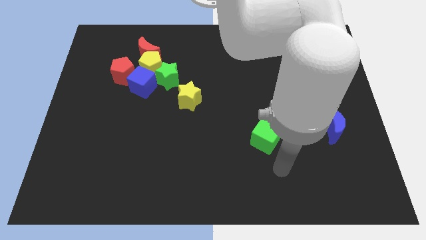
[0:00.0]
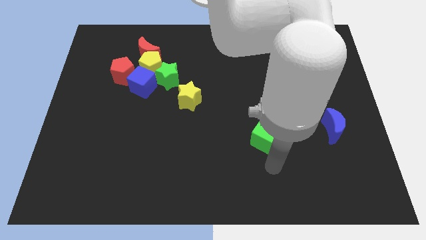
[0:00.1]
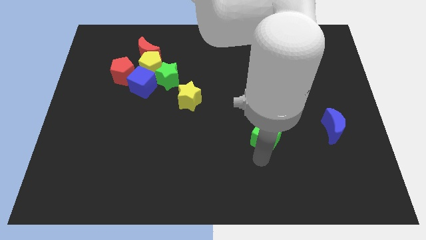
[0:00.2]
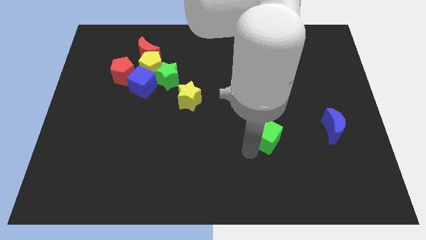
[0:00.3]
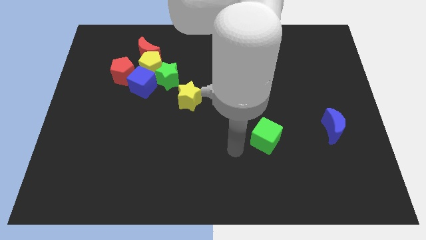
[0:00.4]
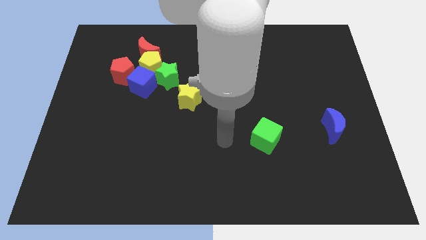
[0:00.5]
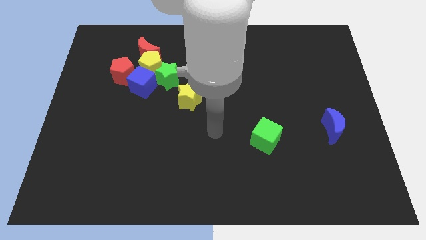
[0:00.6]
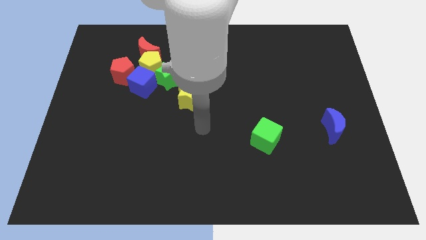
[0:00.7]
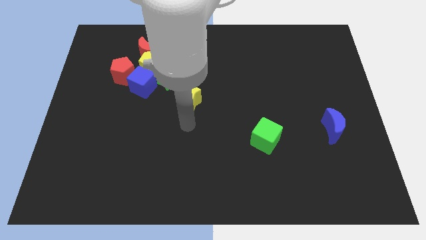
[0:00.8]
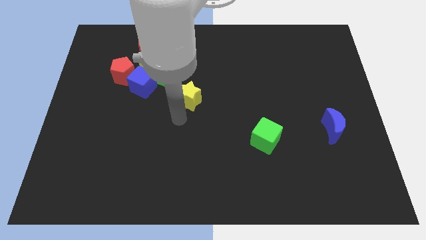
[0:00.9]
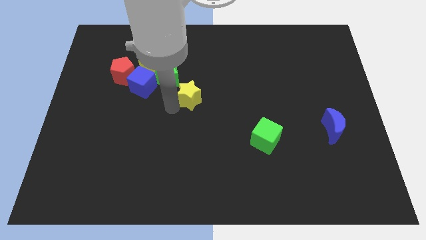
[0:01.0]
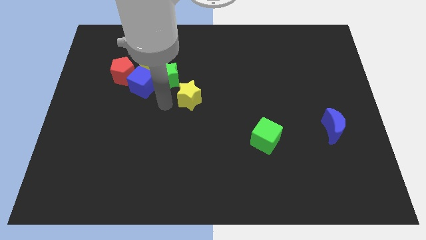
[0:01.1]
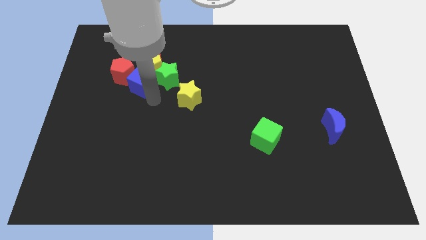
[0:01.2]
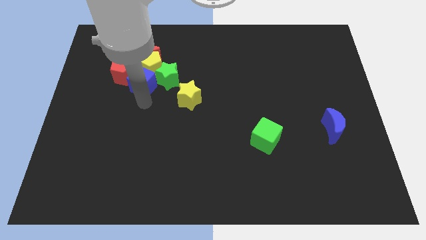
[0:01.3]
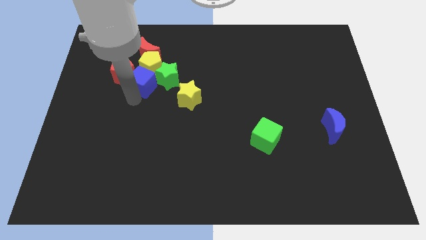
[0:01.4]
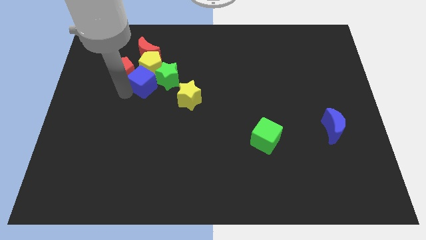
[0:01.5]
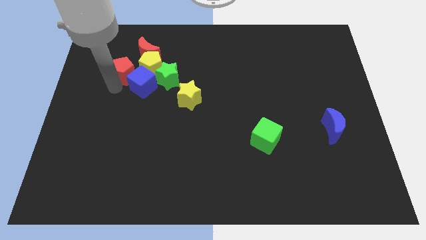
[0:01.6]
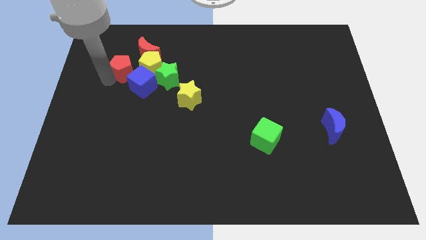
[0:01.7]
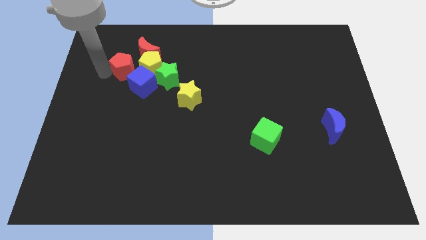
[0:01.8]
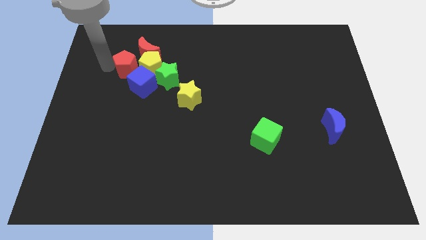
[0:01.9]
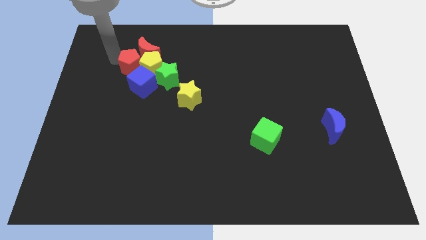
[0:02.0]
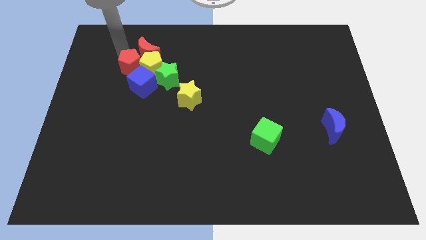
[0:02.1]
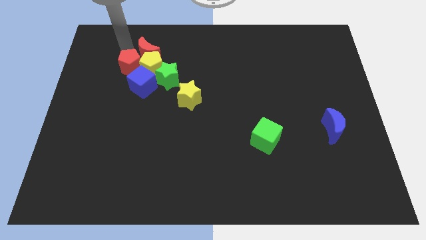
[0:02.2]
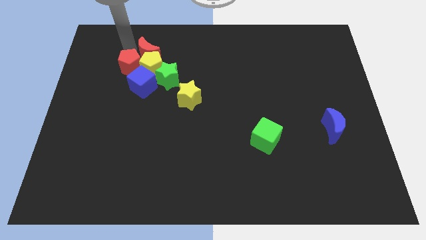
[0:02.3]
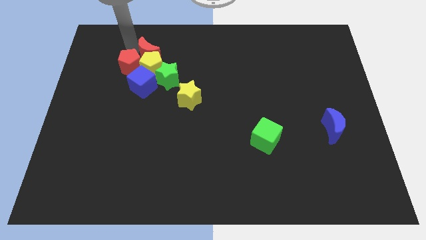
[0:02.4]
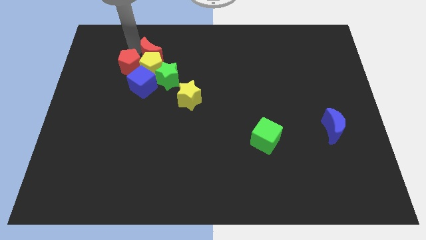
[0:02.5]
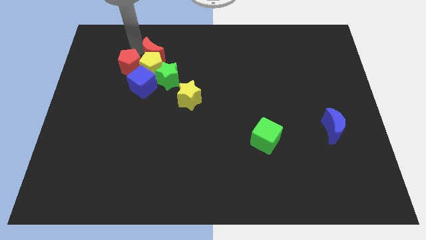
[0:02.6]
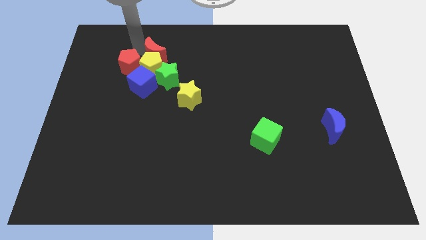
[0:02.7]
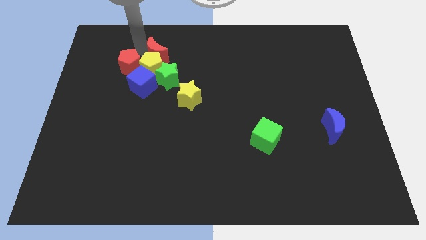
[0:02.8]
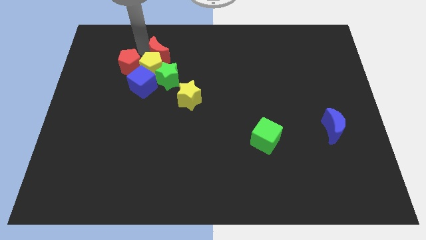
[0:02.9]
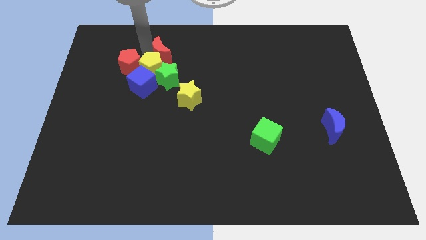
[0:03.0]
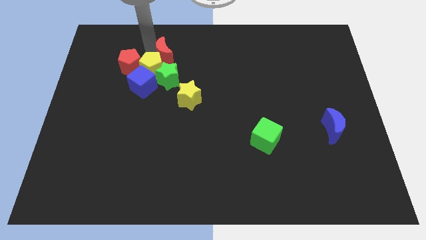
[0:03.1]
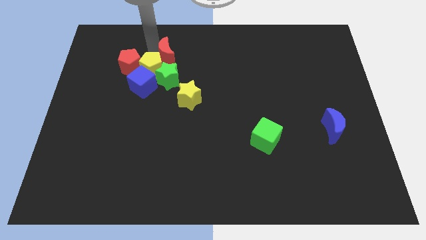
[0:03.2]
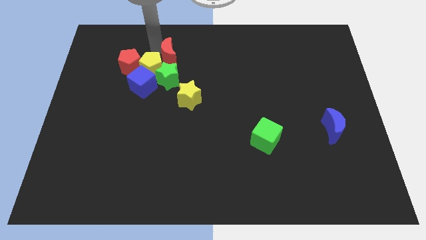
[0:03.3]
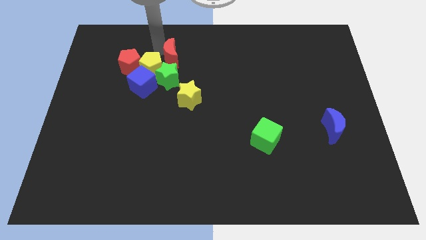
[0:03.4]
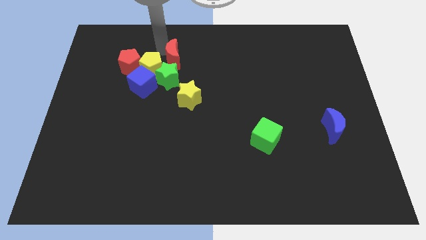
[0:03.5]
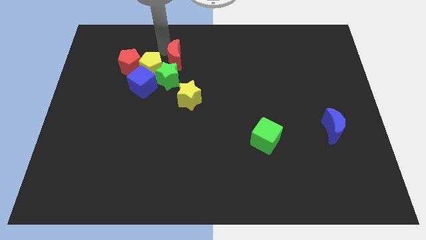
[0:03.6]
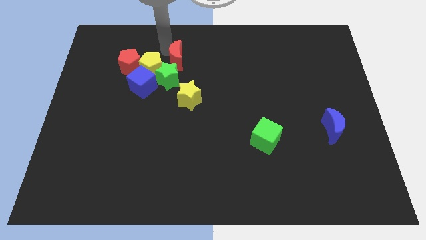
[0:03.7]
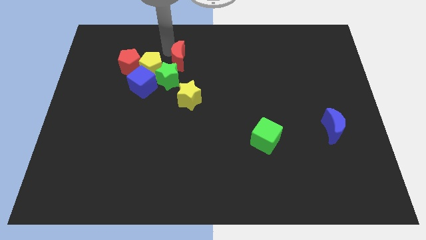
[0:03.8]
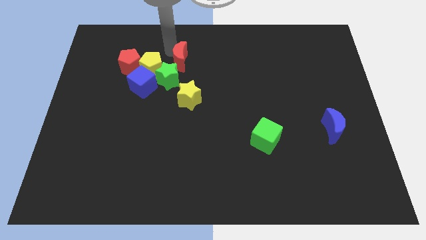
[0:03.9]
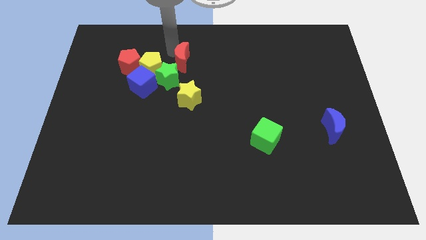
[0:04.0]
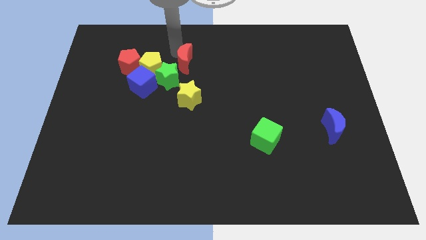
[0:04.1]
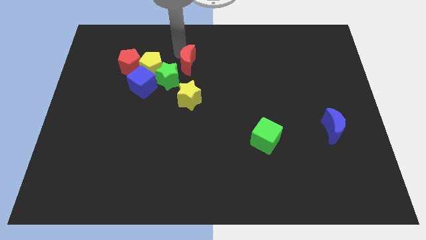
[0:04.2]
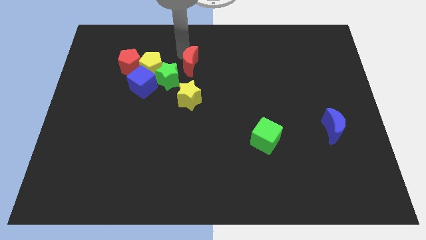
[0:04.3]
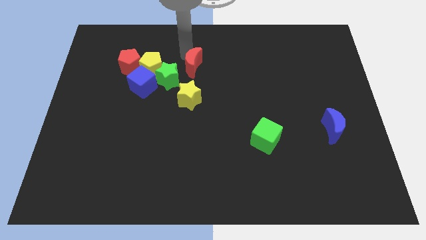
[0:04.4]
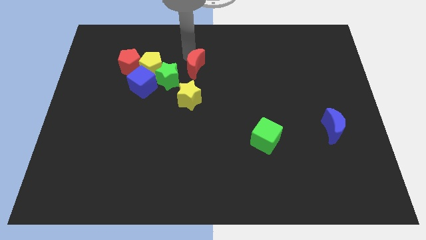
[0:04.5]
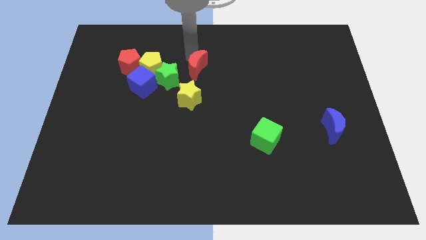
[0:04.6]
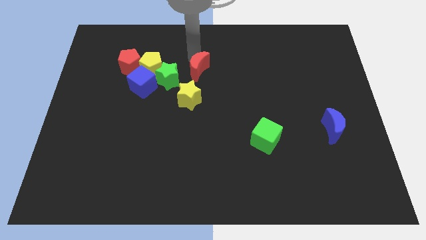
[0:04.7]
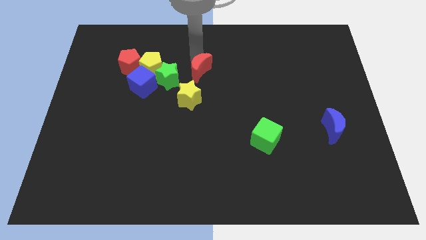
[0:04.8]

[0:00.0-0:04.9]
slide the red moon diagonally up and to the right of the yellow star

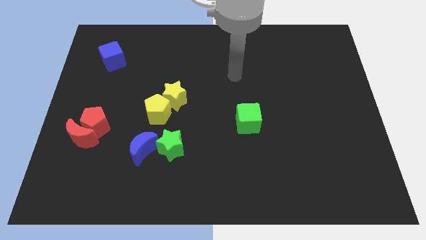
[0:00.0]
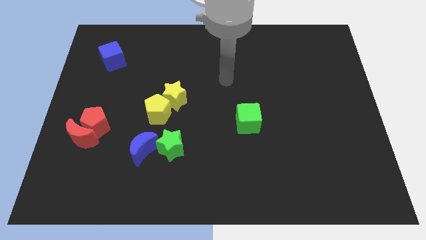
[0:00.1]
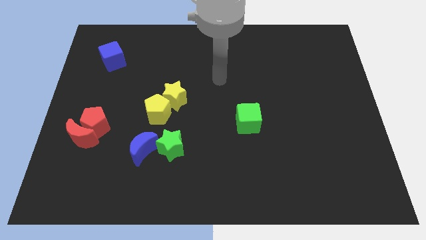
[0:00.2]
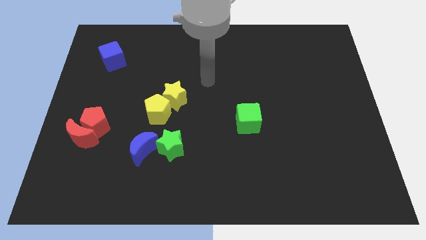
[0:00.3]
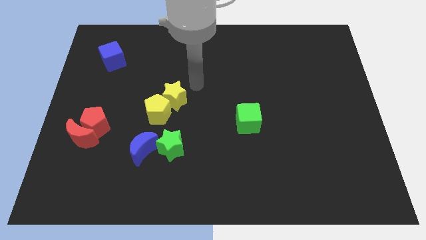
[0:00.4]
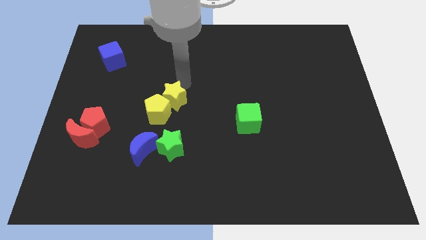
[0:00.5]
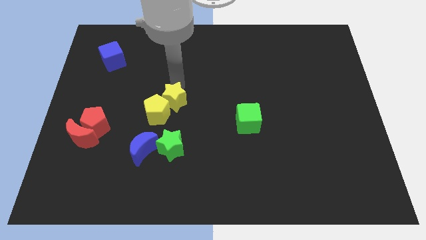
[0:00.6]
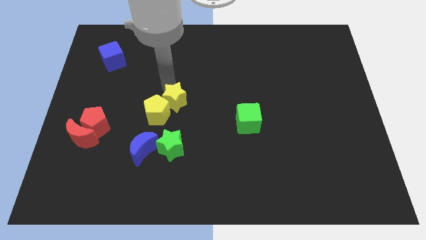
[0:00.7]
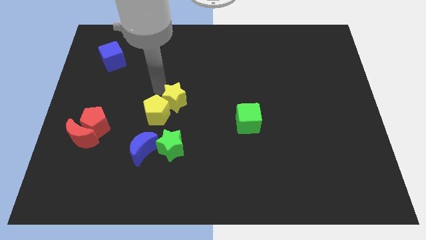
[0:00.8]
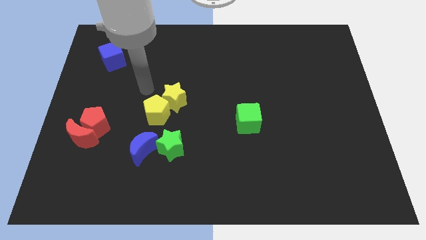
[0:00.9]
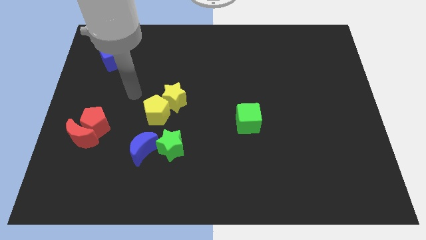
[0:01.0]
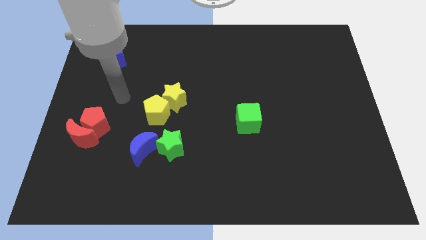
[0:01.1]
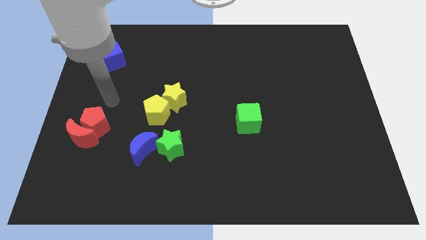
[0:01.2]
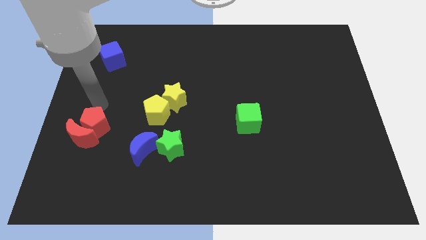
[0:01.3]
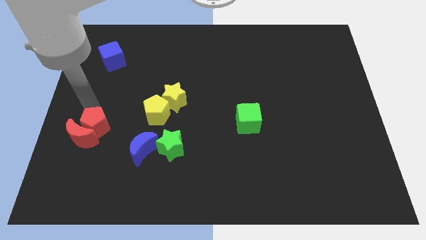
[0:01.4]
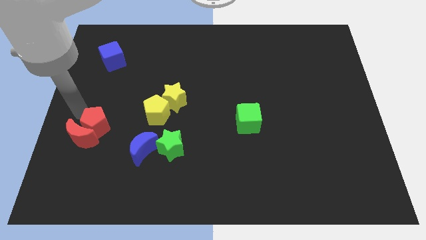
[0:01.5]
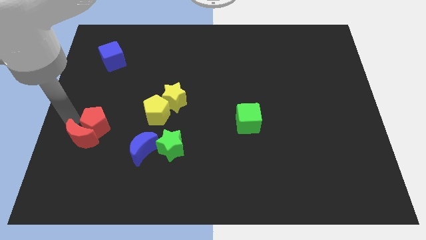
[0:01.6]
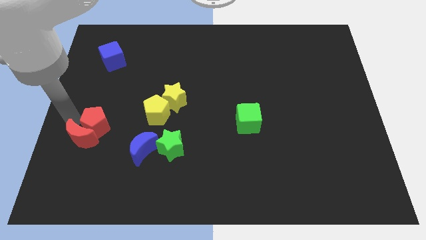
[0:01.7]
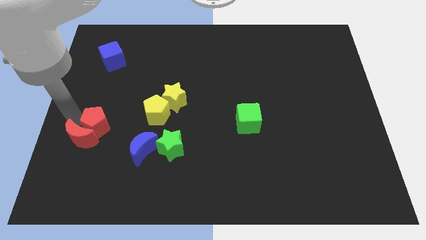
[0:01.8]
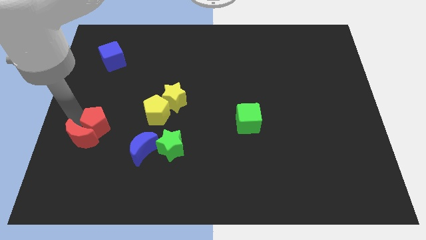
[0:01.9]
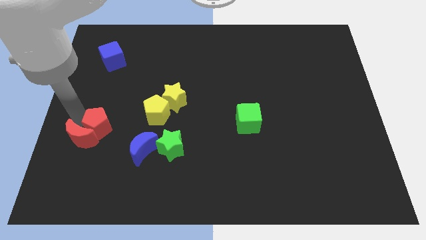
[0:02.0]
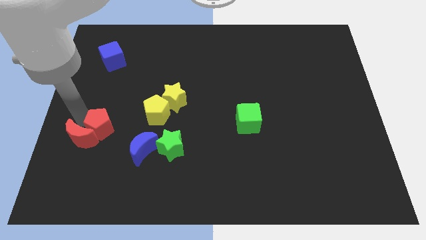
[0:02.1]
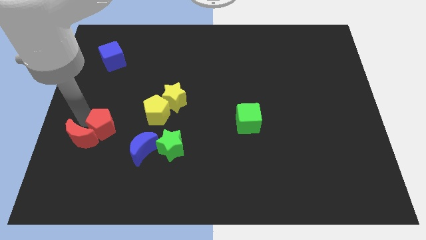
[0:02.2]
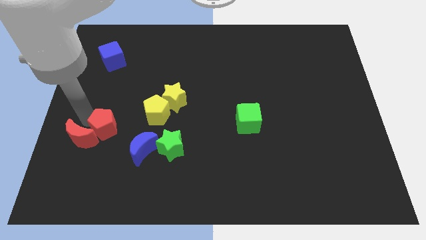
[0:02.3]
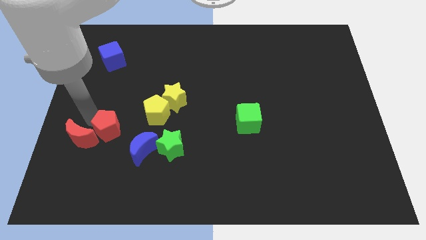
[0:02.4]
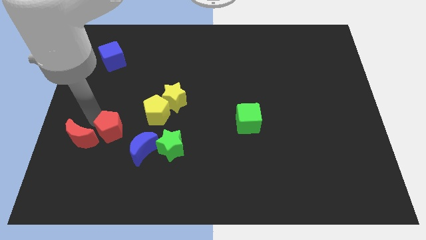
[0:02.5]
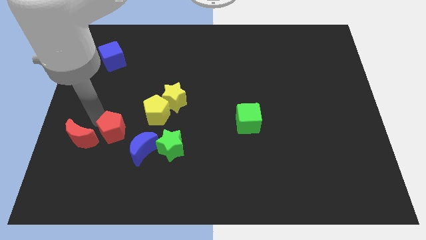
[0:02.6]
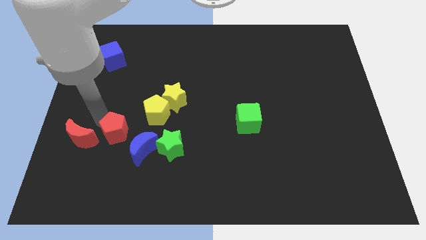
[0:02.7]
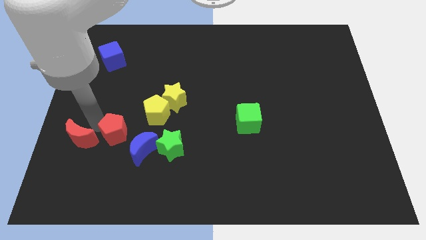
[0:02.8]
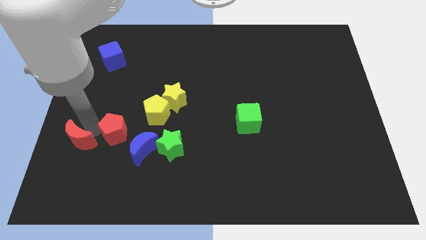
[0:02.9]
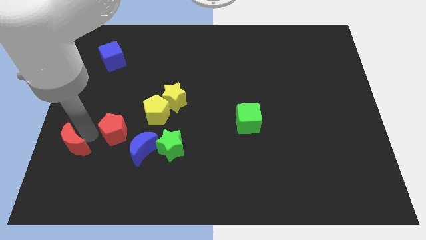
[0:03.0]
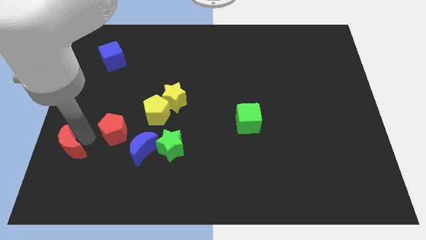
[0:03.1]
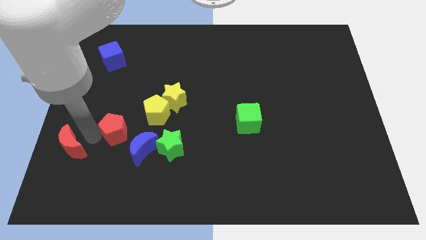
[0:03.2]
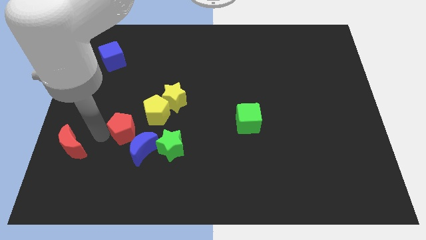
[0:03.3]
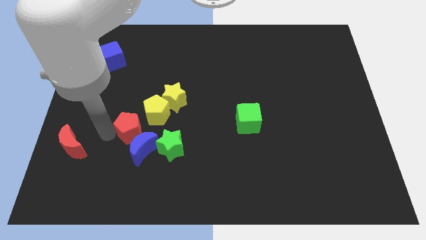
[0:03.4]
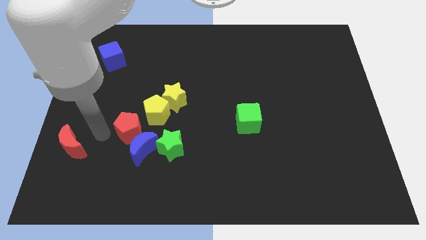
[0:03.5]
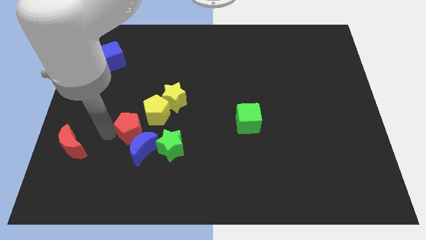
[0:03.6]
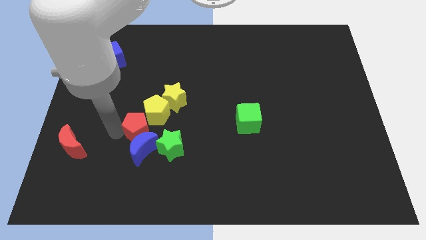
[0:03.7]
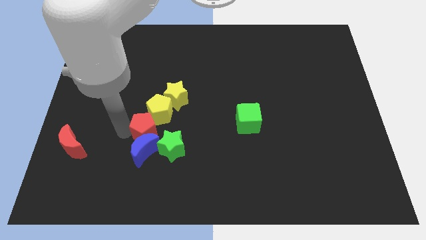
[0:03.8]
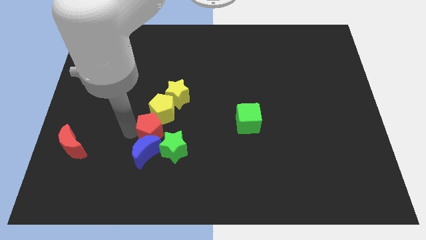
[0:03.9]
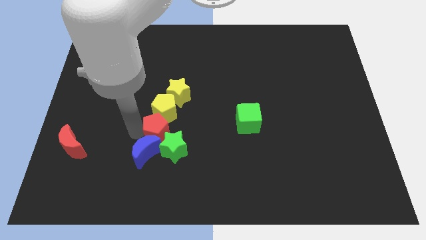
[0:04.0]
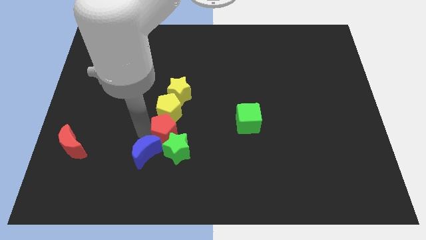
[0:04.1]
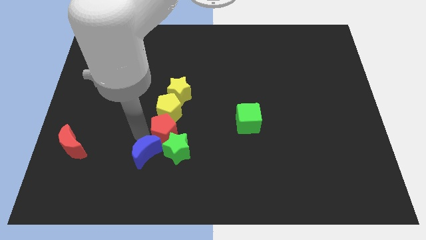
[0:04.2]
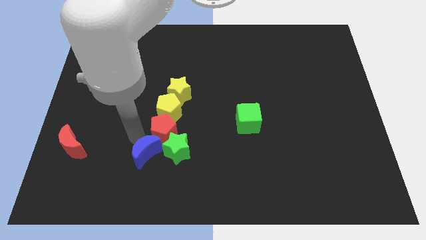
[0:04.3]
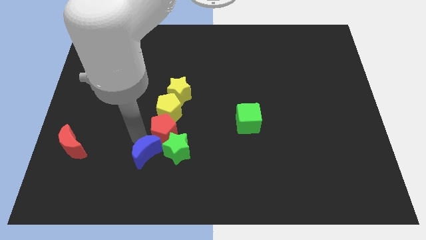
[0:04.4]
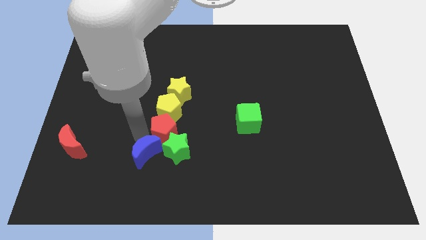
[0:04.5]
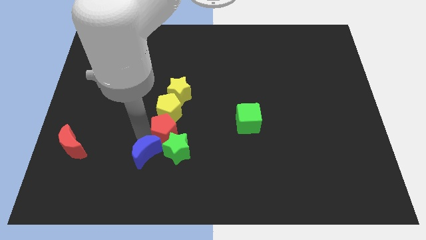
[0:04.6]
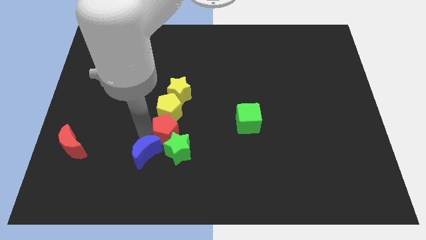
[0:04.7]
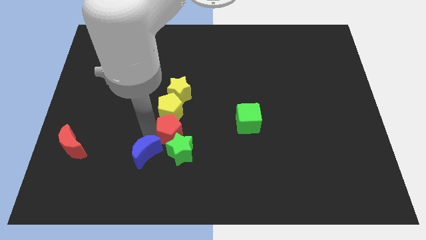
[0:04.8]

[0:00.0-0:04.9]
put the red pentagon to the right of the blue moon
